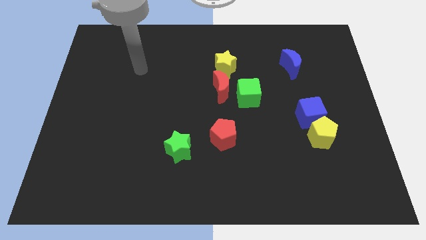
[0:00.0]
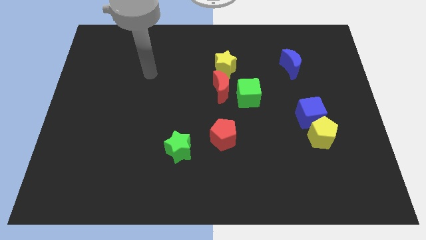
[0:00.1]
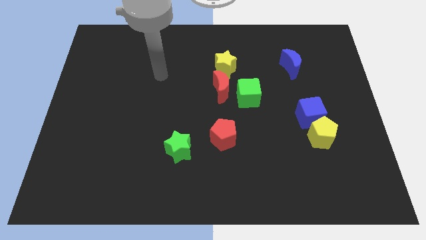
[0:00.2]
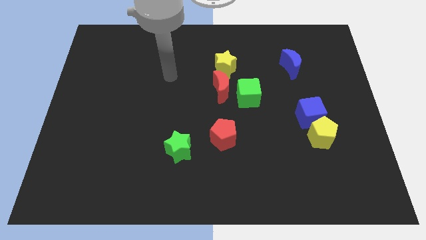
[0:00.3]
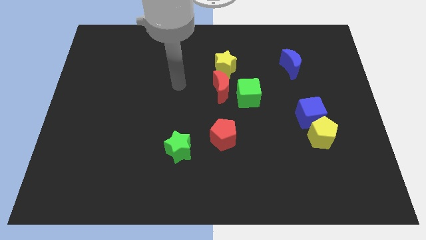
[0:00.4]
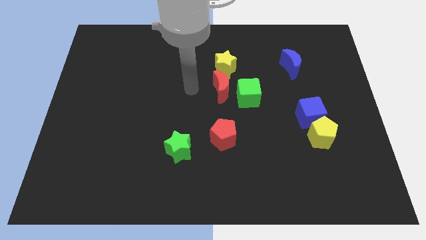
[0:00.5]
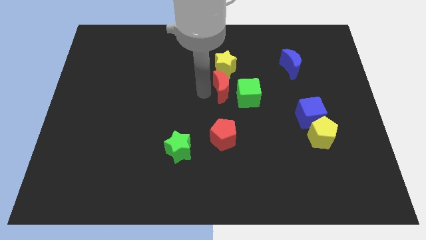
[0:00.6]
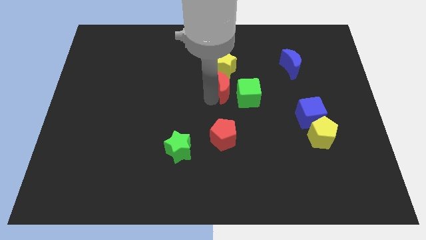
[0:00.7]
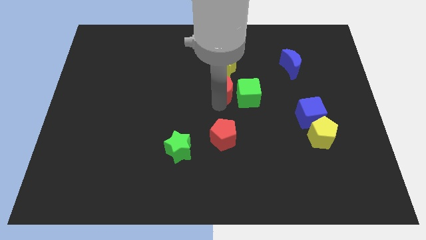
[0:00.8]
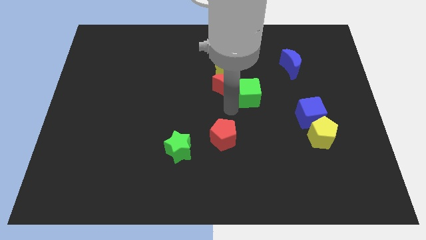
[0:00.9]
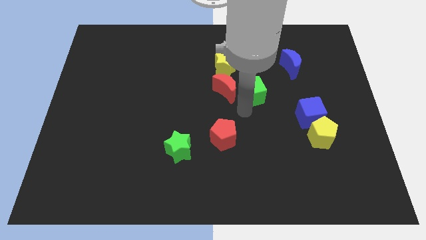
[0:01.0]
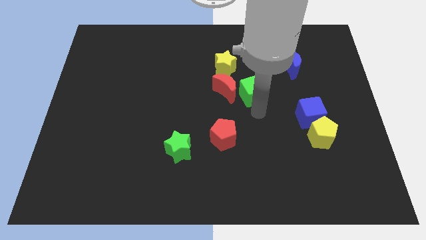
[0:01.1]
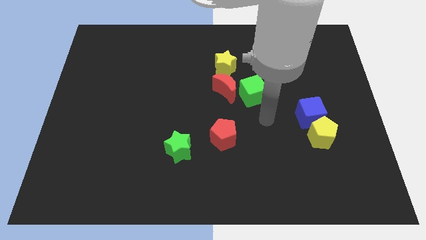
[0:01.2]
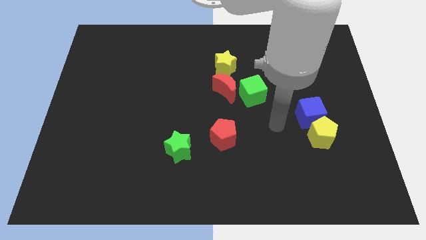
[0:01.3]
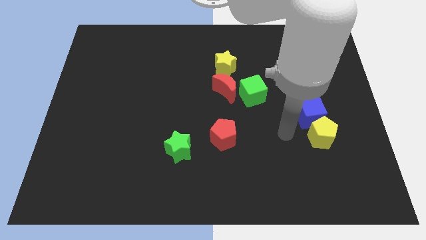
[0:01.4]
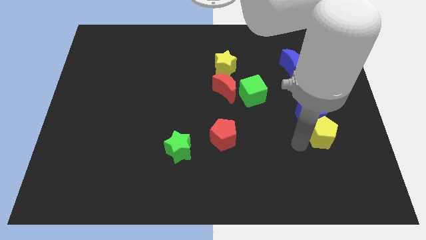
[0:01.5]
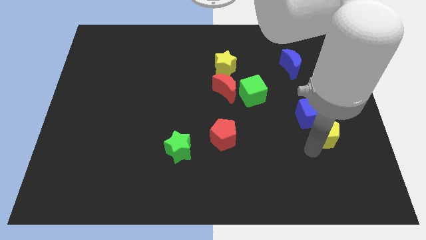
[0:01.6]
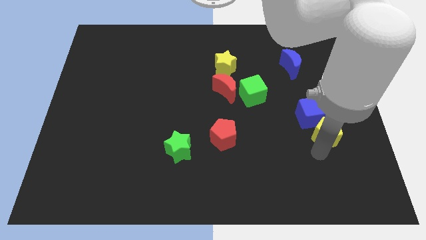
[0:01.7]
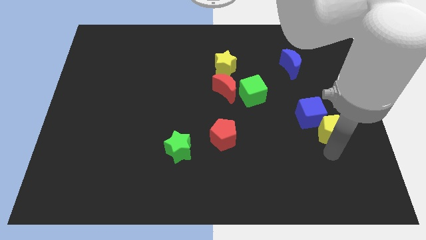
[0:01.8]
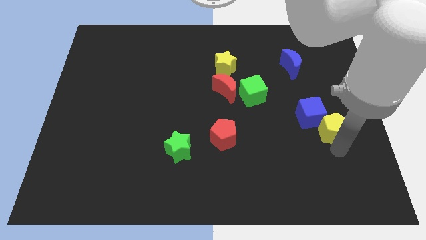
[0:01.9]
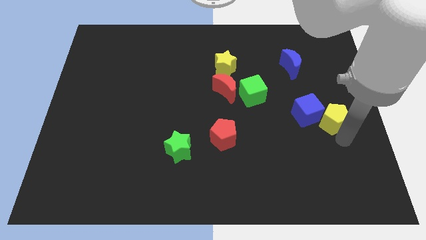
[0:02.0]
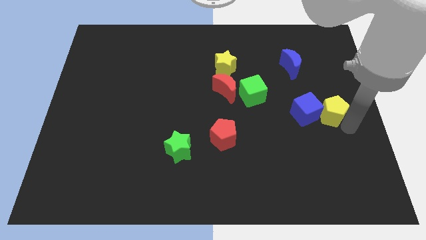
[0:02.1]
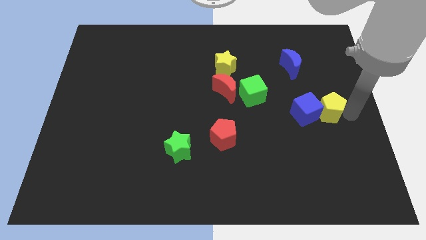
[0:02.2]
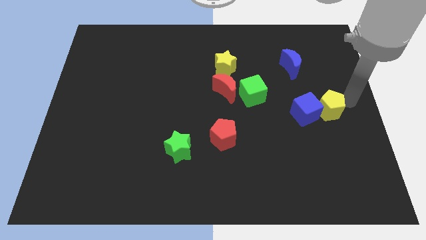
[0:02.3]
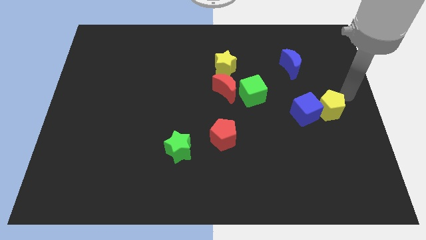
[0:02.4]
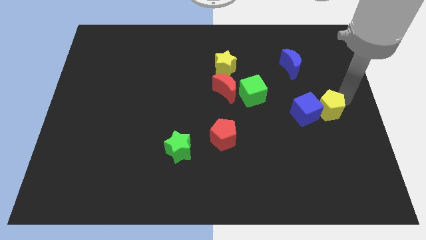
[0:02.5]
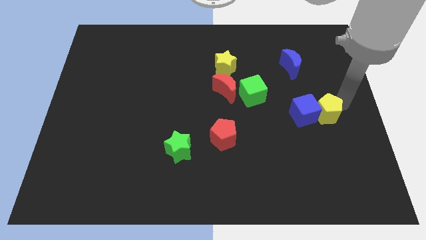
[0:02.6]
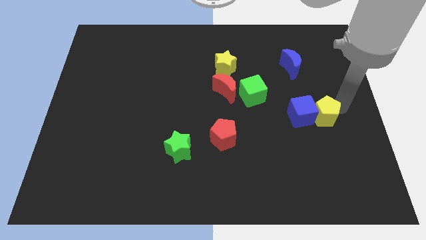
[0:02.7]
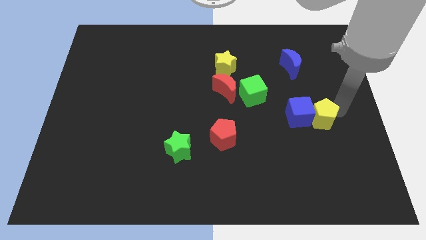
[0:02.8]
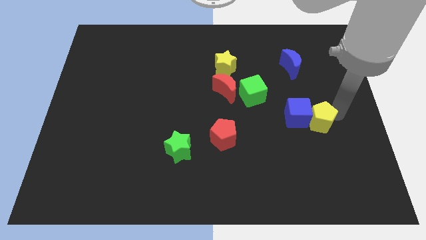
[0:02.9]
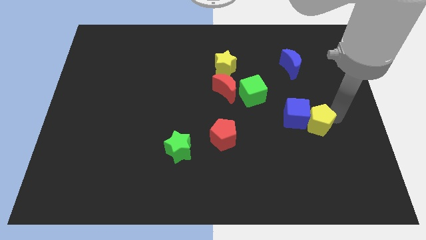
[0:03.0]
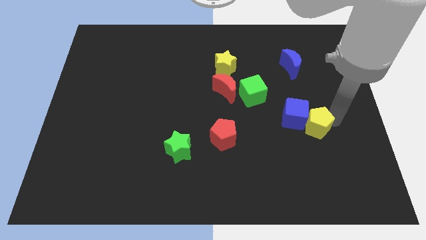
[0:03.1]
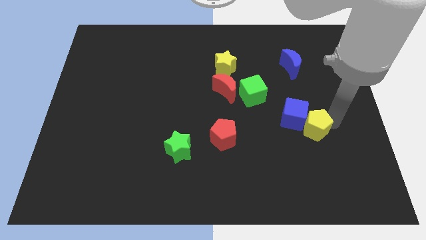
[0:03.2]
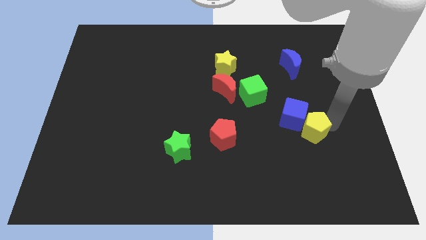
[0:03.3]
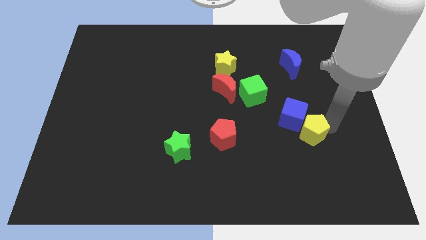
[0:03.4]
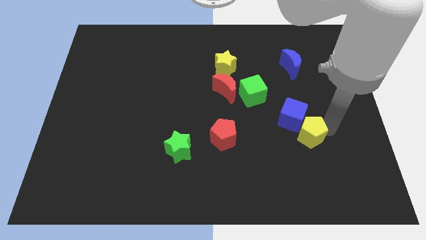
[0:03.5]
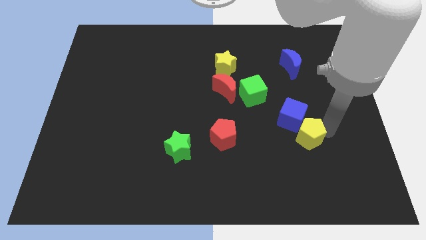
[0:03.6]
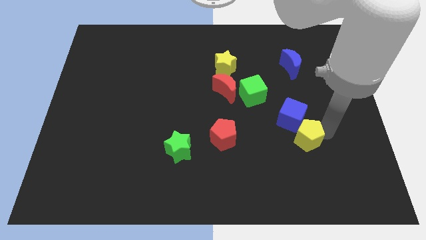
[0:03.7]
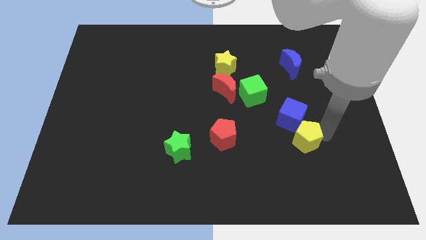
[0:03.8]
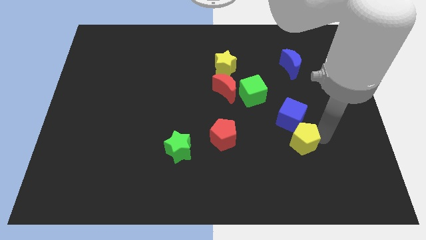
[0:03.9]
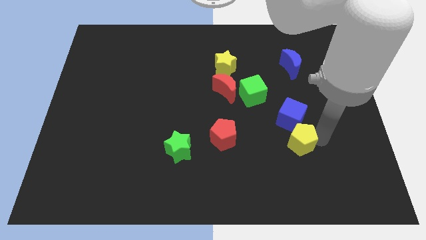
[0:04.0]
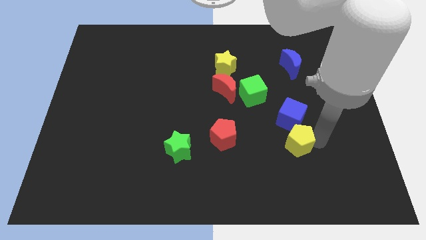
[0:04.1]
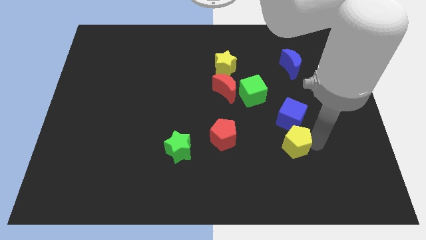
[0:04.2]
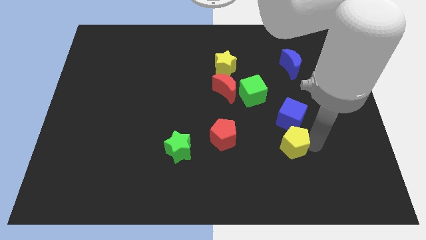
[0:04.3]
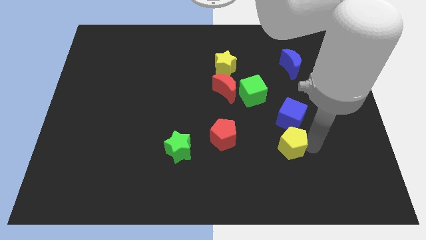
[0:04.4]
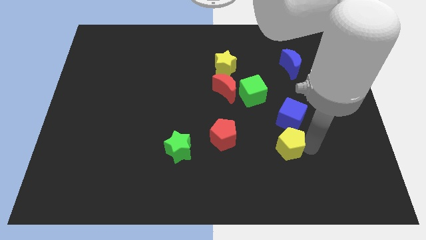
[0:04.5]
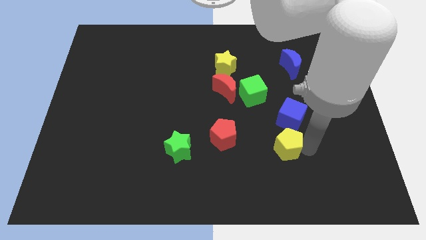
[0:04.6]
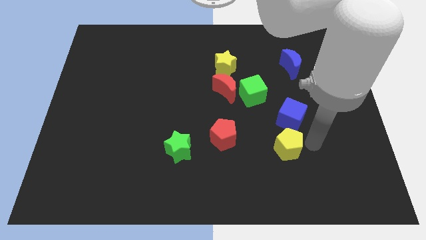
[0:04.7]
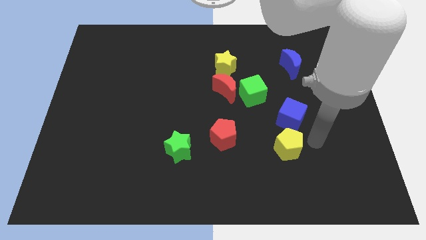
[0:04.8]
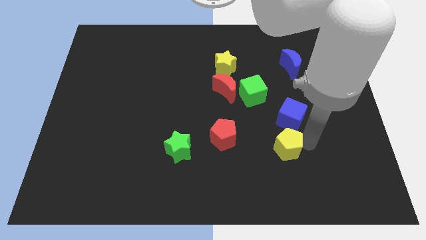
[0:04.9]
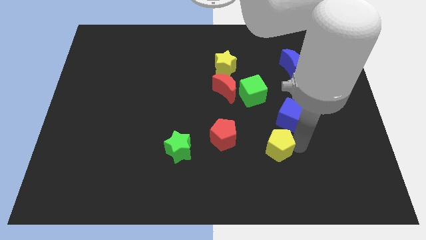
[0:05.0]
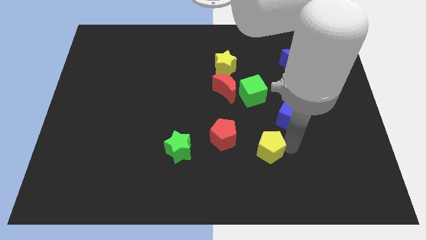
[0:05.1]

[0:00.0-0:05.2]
push the yellow pentagon diagonally down and to the right of the red pentagon

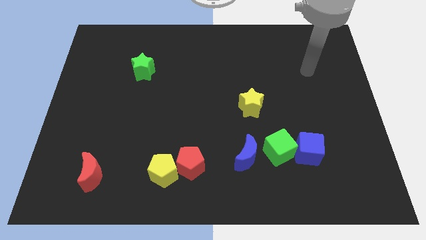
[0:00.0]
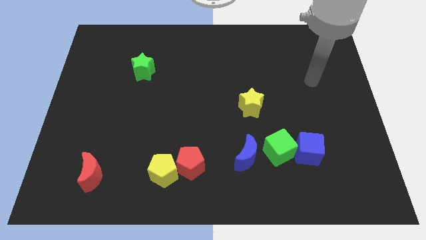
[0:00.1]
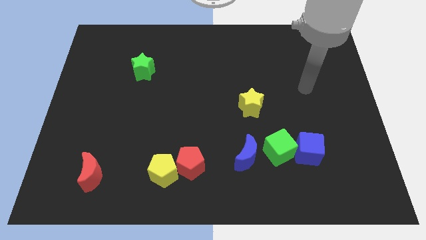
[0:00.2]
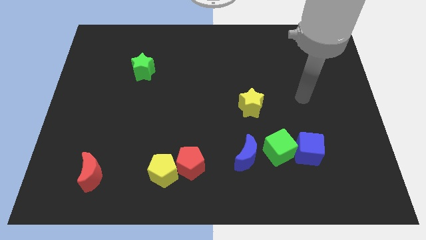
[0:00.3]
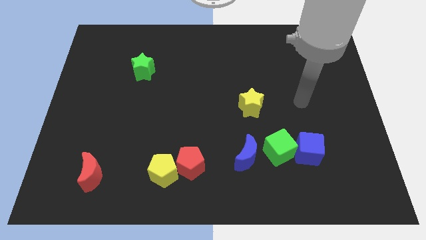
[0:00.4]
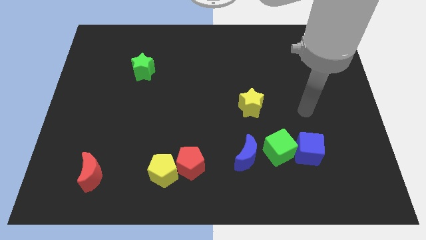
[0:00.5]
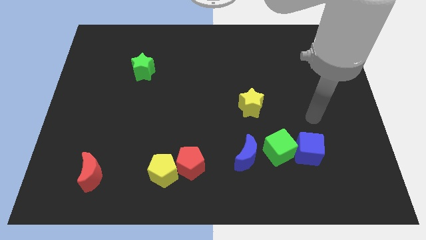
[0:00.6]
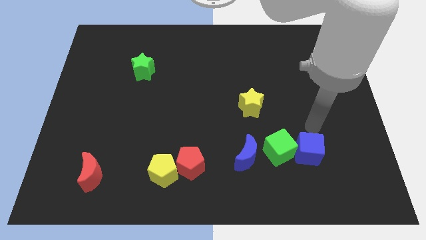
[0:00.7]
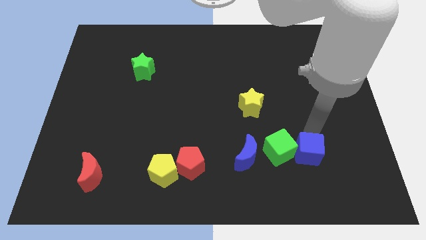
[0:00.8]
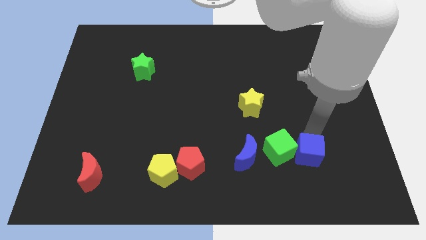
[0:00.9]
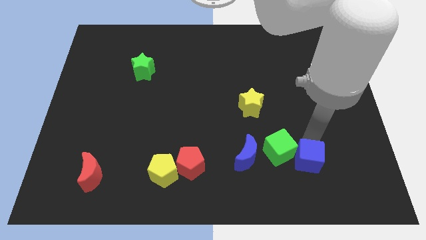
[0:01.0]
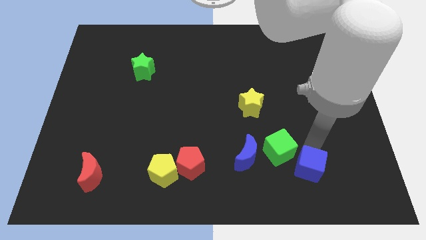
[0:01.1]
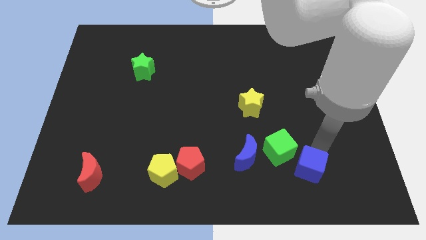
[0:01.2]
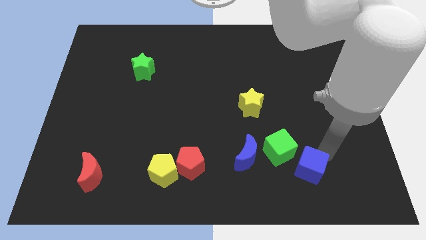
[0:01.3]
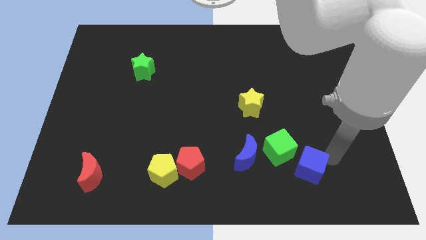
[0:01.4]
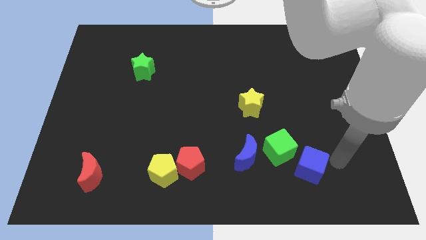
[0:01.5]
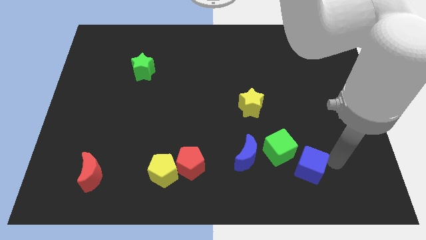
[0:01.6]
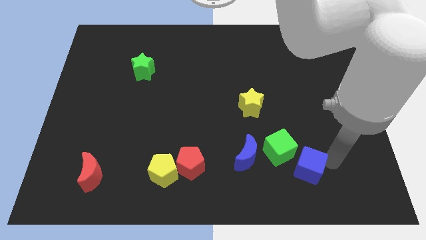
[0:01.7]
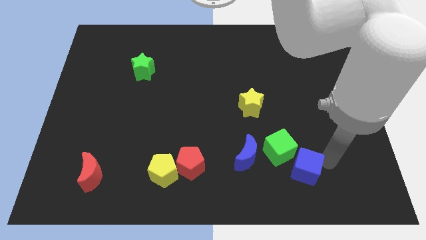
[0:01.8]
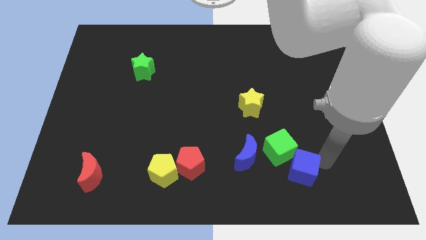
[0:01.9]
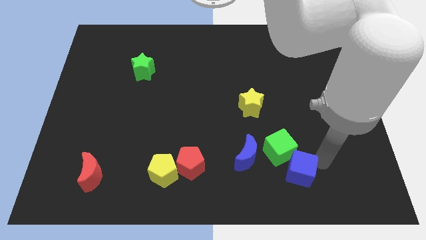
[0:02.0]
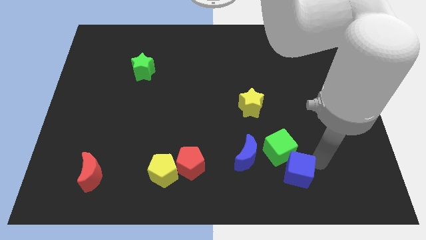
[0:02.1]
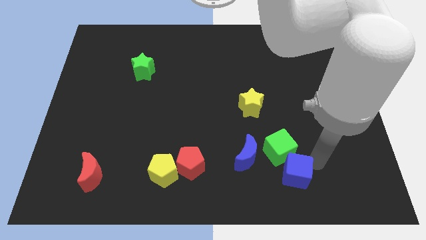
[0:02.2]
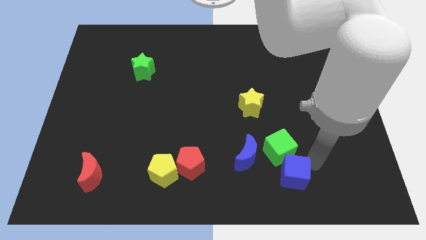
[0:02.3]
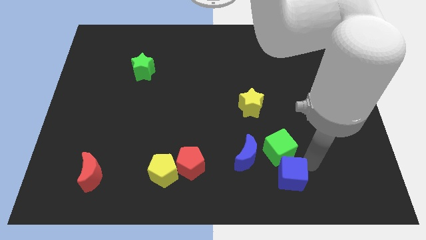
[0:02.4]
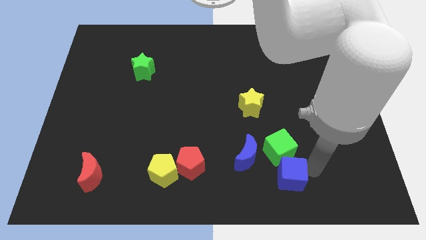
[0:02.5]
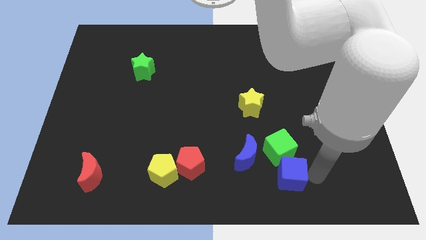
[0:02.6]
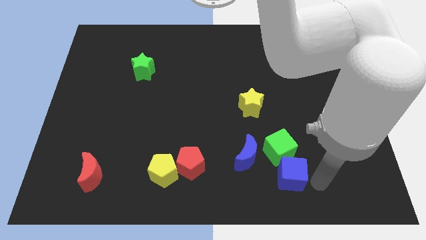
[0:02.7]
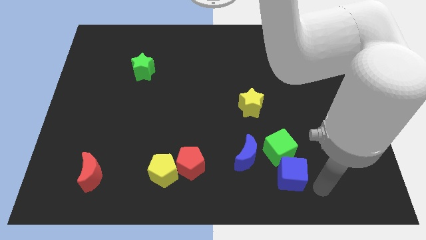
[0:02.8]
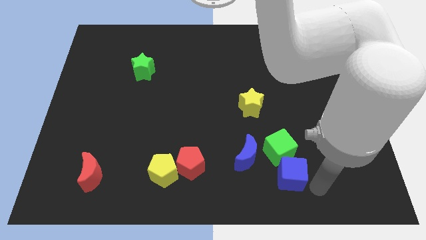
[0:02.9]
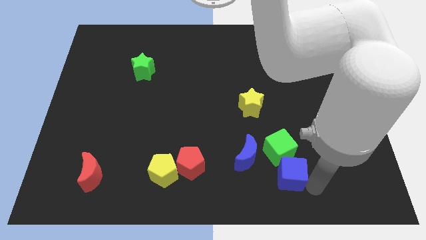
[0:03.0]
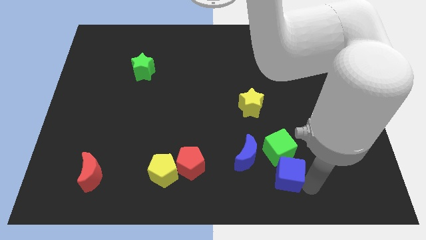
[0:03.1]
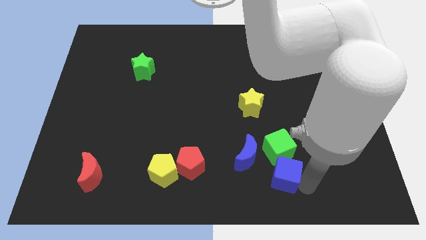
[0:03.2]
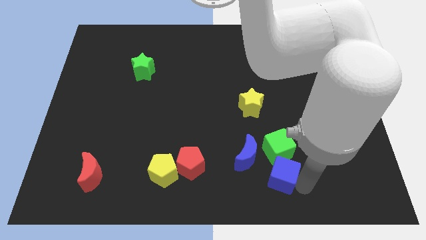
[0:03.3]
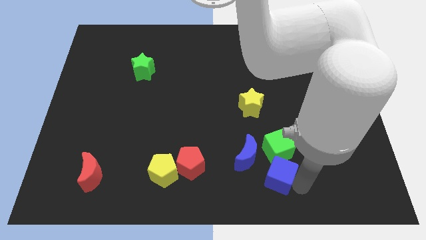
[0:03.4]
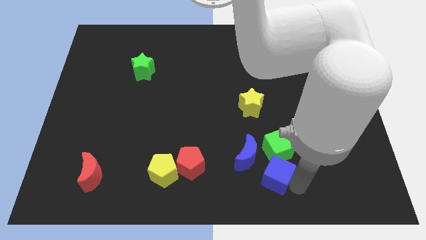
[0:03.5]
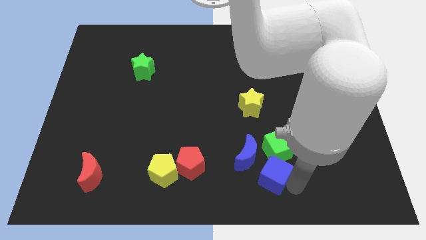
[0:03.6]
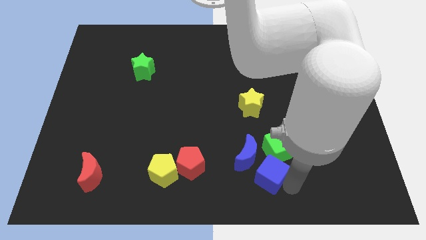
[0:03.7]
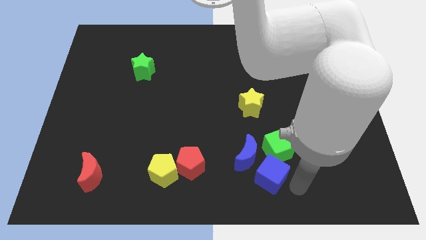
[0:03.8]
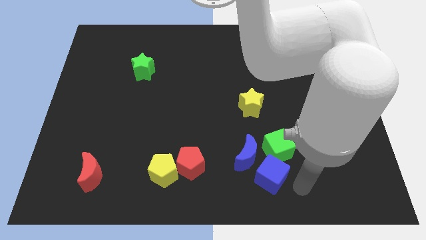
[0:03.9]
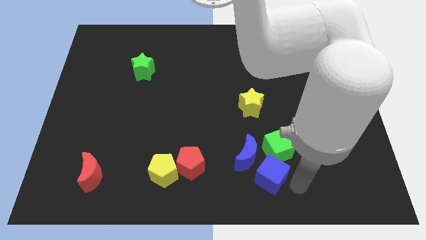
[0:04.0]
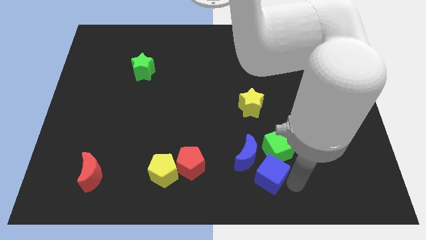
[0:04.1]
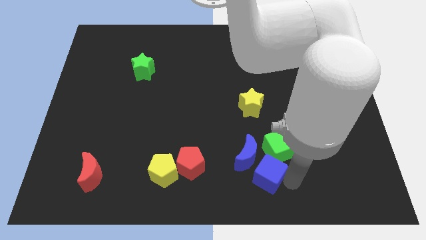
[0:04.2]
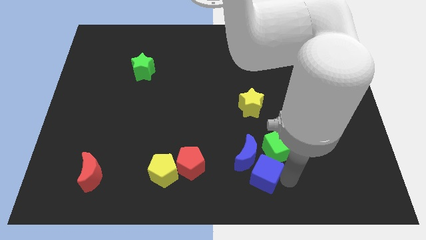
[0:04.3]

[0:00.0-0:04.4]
push the blue cube to the right side of the red pentagon
